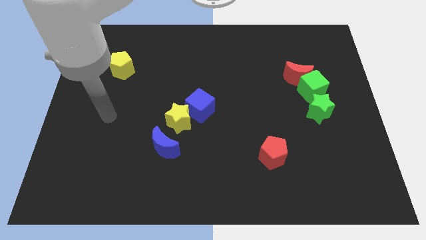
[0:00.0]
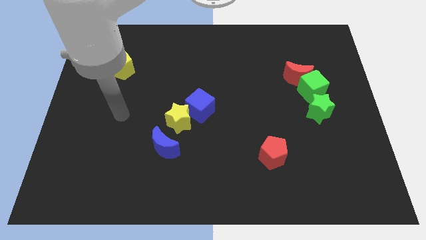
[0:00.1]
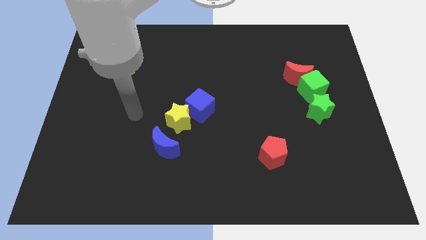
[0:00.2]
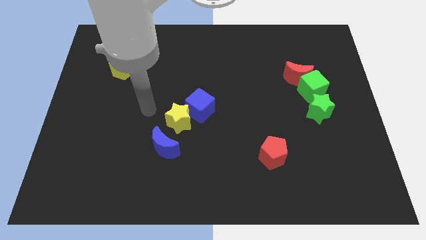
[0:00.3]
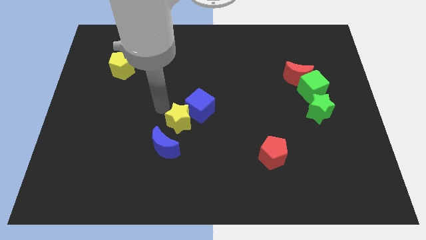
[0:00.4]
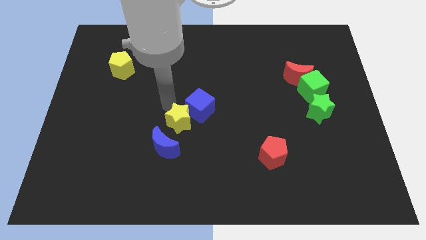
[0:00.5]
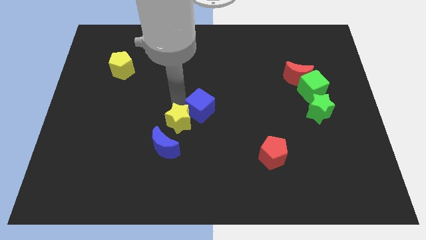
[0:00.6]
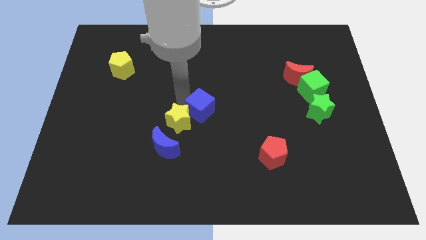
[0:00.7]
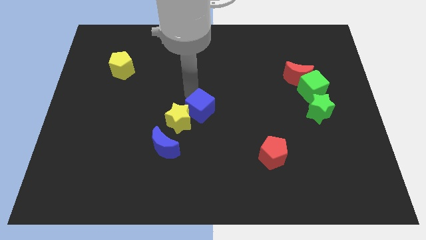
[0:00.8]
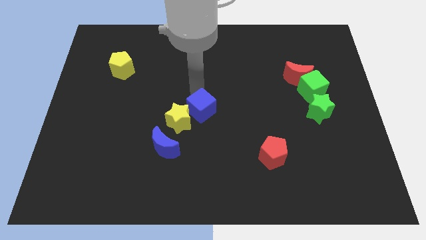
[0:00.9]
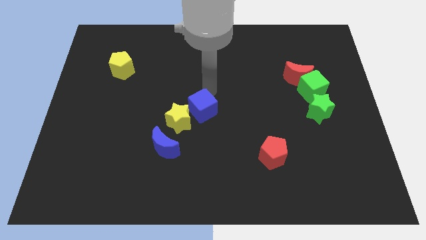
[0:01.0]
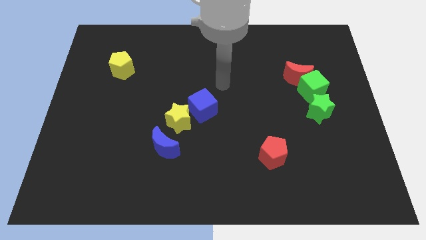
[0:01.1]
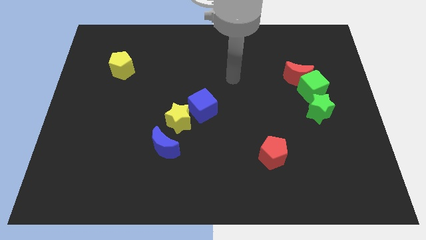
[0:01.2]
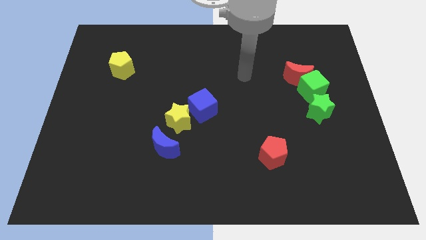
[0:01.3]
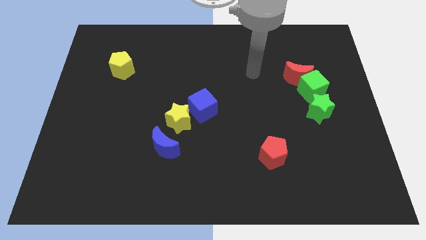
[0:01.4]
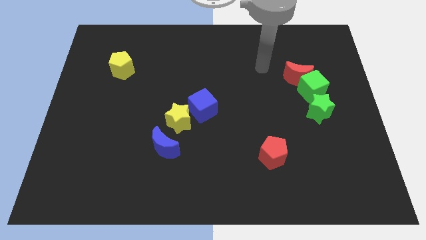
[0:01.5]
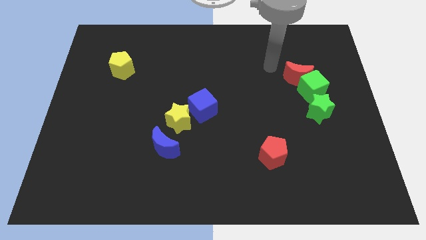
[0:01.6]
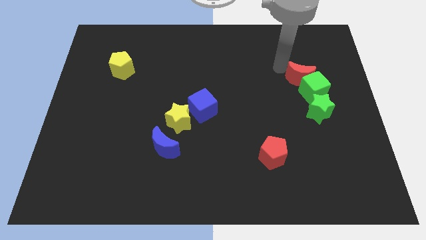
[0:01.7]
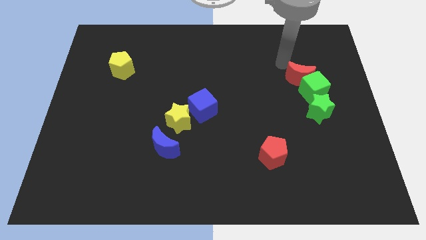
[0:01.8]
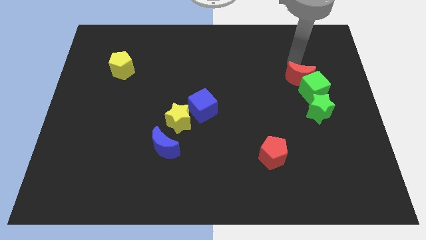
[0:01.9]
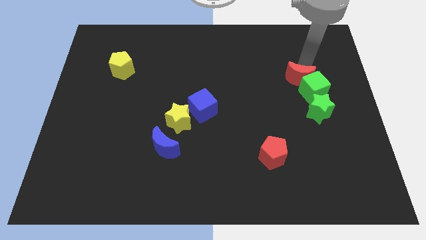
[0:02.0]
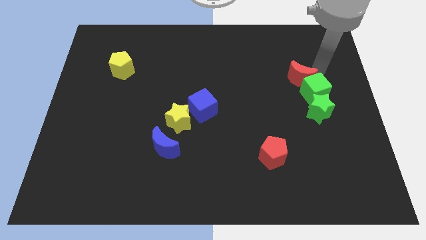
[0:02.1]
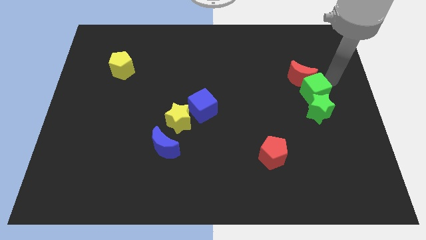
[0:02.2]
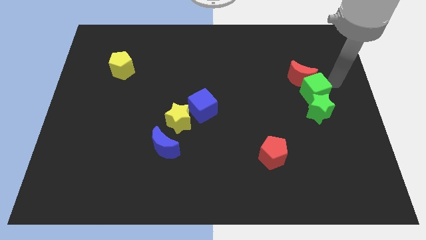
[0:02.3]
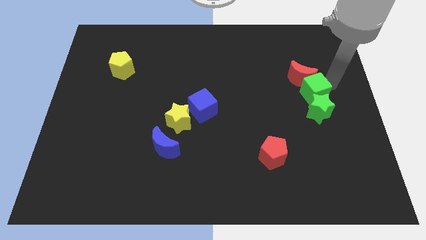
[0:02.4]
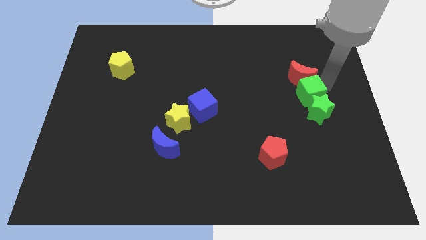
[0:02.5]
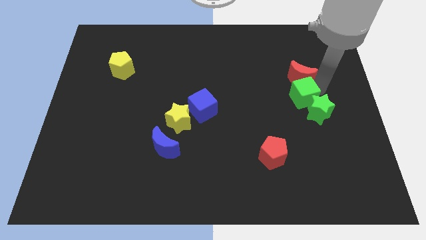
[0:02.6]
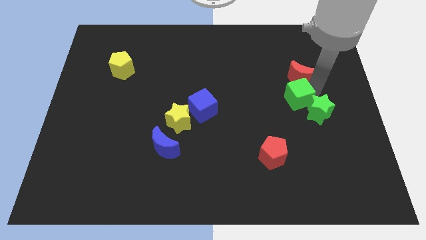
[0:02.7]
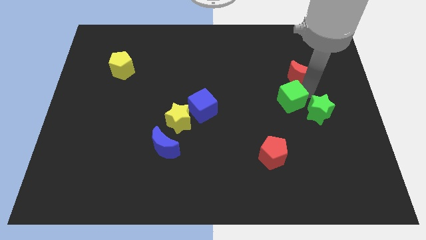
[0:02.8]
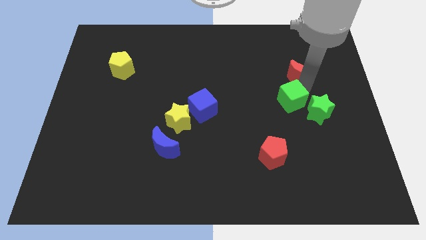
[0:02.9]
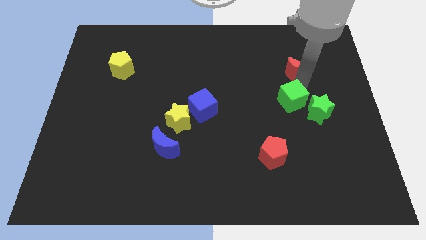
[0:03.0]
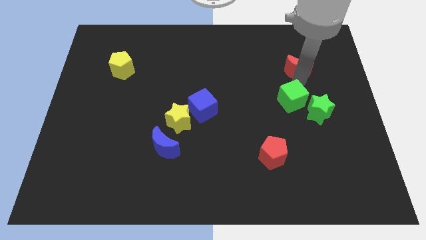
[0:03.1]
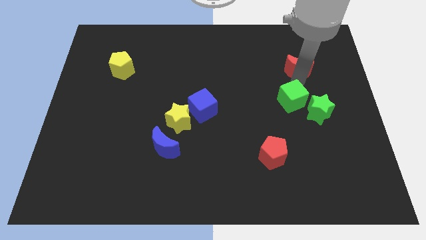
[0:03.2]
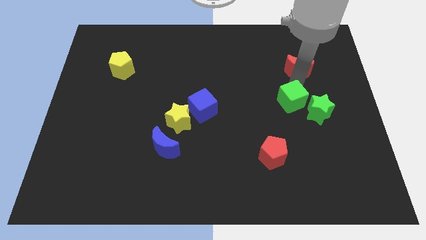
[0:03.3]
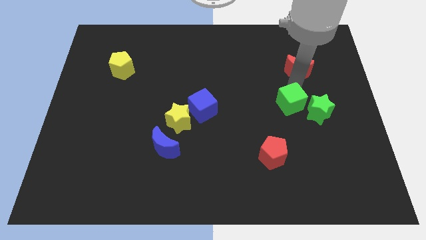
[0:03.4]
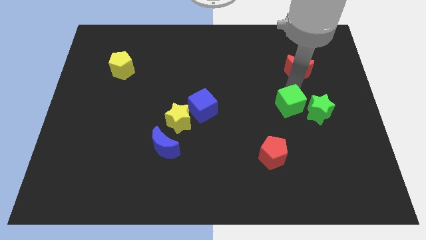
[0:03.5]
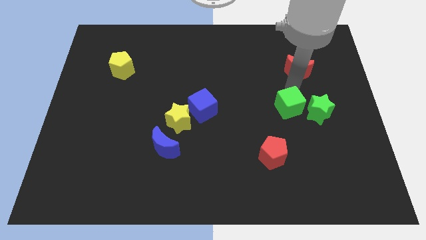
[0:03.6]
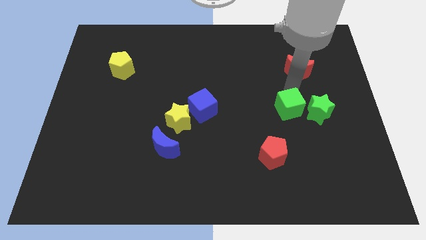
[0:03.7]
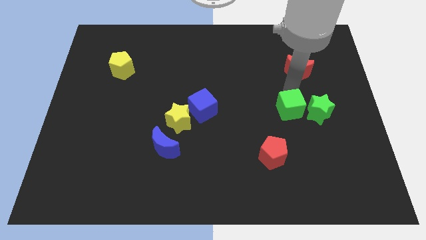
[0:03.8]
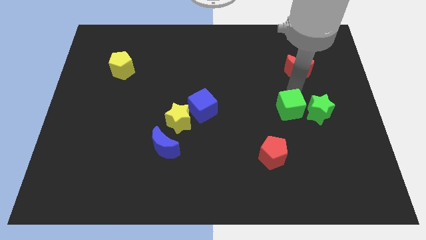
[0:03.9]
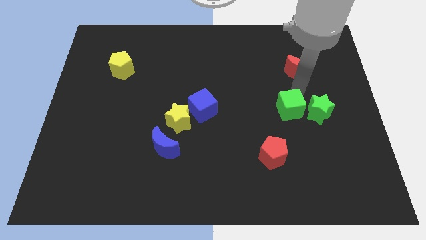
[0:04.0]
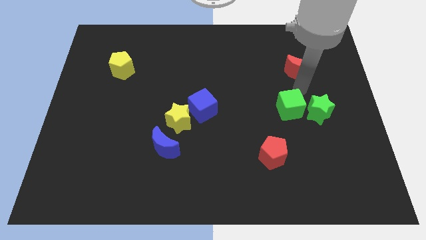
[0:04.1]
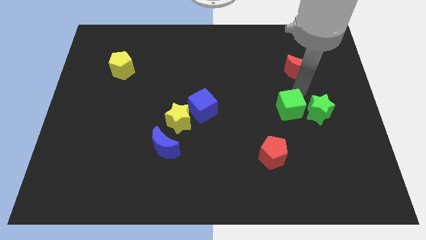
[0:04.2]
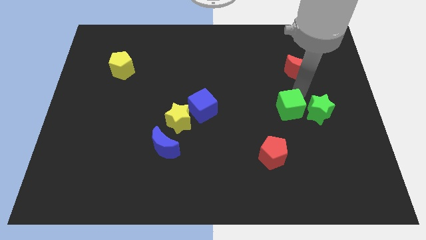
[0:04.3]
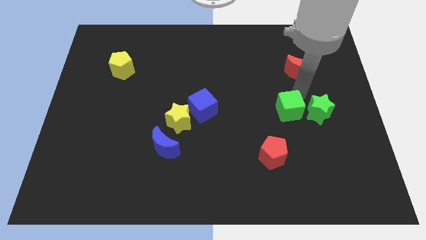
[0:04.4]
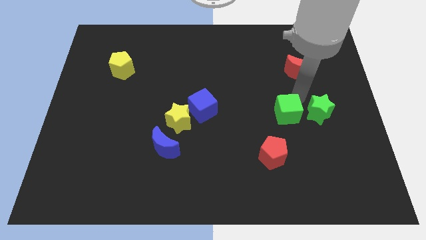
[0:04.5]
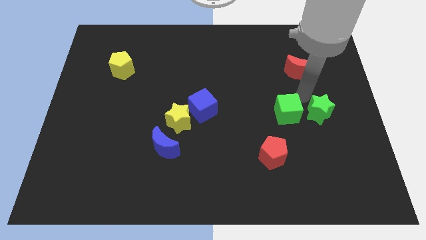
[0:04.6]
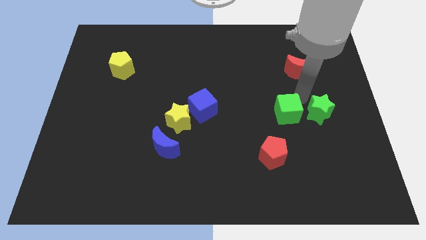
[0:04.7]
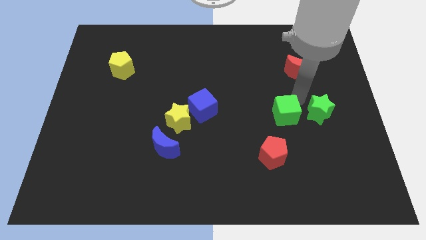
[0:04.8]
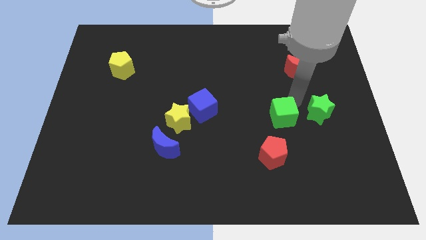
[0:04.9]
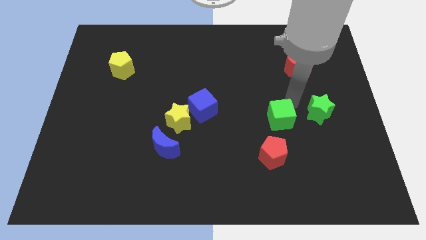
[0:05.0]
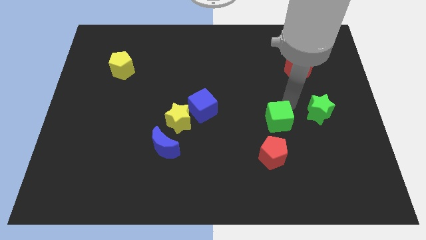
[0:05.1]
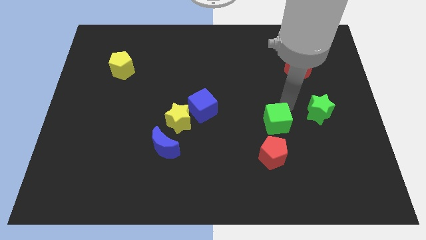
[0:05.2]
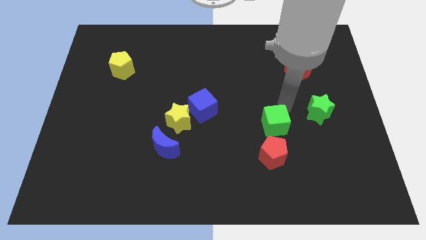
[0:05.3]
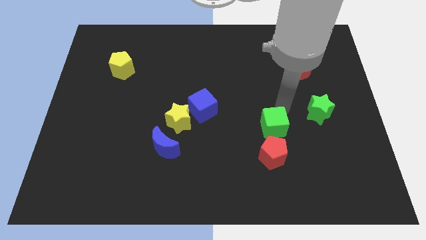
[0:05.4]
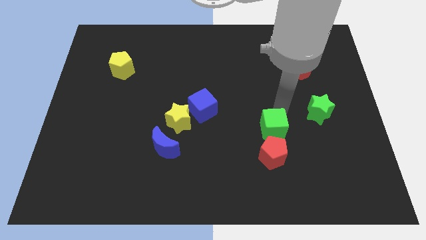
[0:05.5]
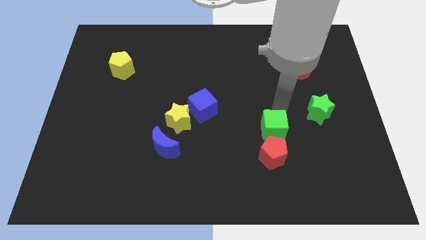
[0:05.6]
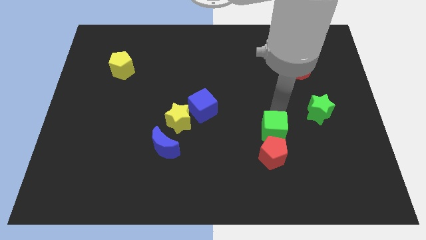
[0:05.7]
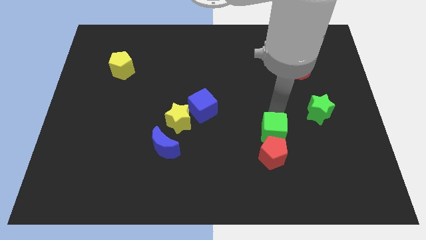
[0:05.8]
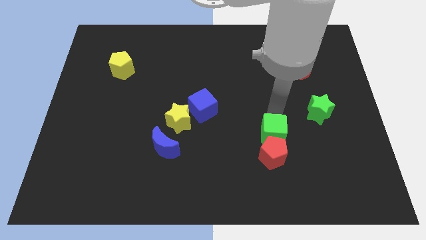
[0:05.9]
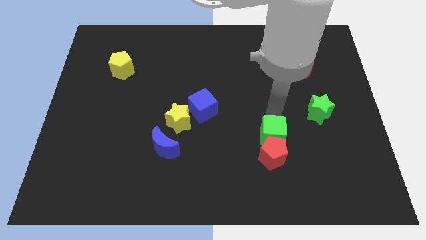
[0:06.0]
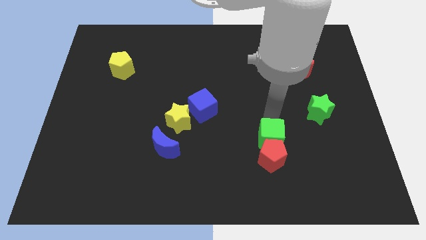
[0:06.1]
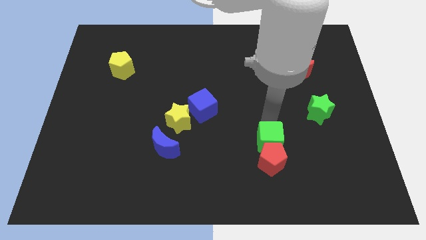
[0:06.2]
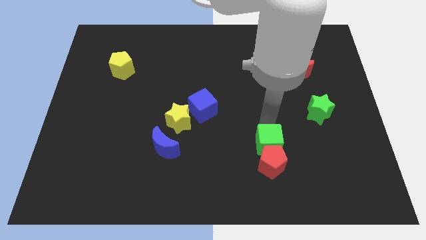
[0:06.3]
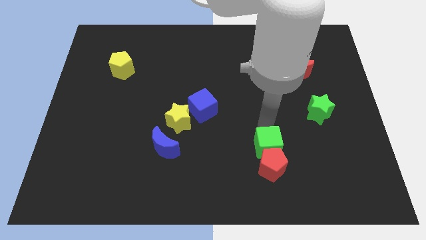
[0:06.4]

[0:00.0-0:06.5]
move the green cube downwards and left diagonally

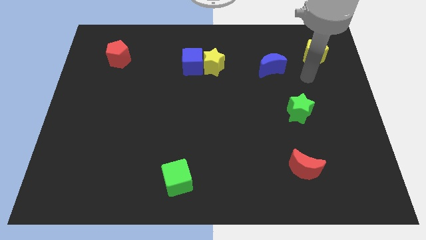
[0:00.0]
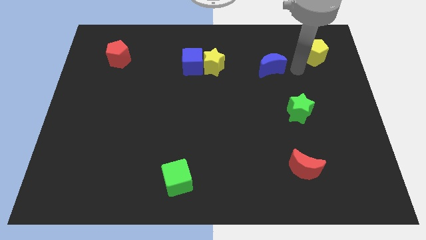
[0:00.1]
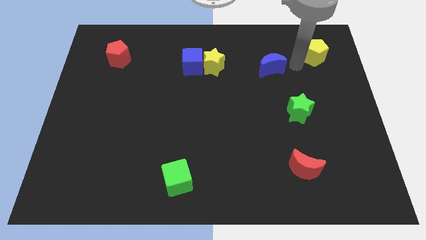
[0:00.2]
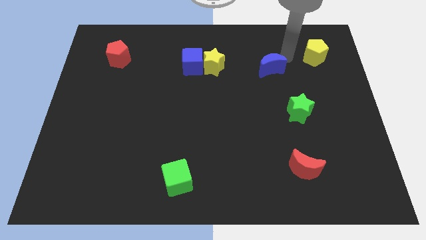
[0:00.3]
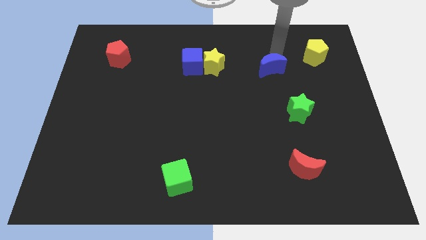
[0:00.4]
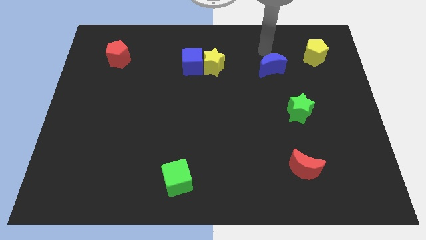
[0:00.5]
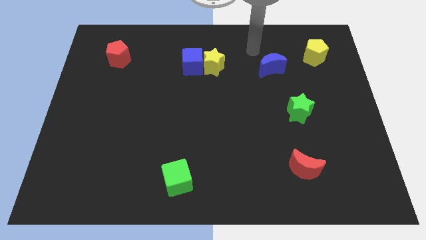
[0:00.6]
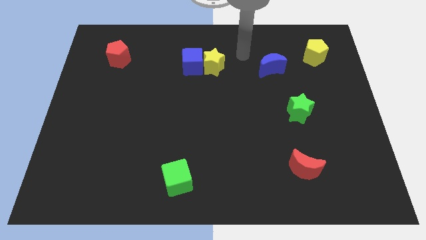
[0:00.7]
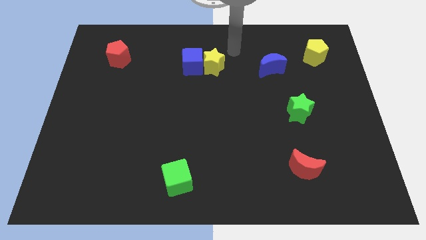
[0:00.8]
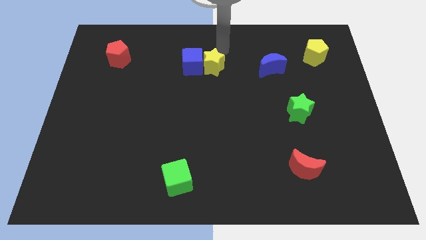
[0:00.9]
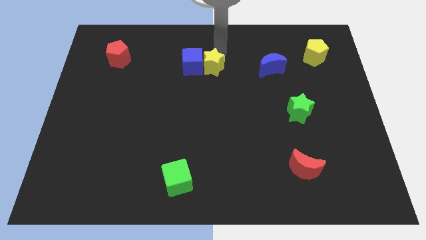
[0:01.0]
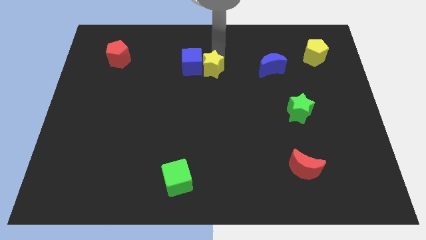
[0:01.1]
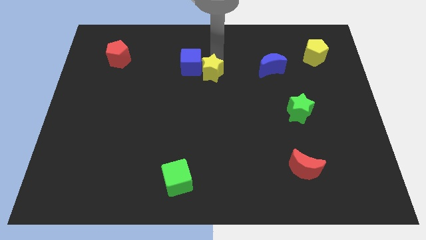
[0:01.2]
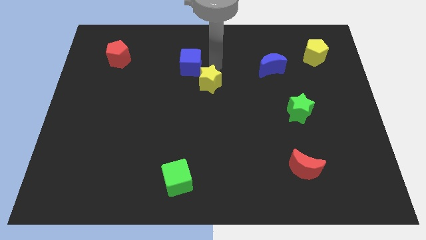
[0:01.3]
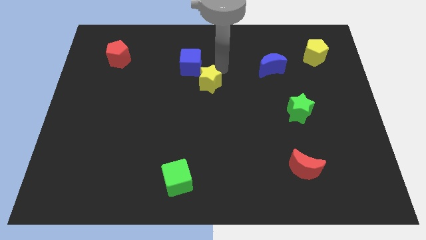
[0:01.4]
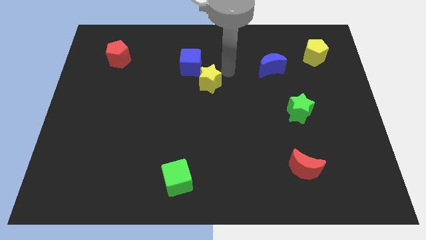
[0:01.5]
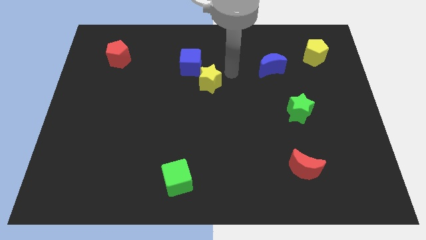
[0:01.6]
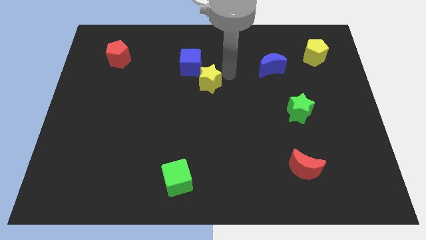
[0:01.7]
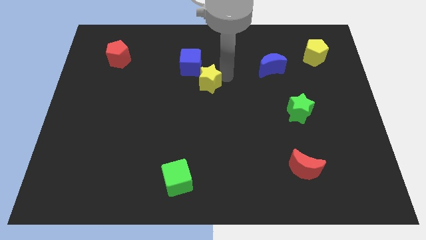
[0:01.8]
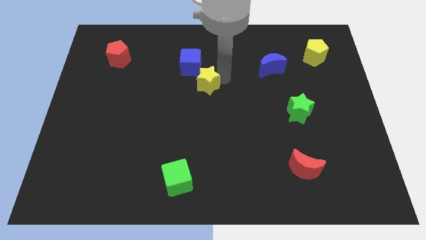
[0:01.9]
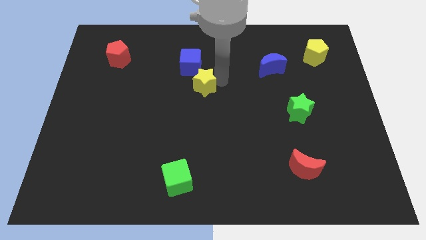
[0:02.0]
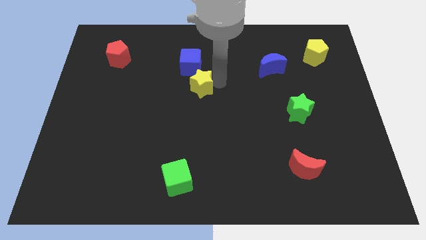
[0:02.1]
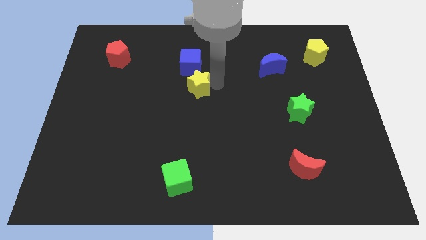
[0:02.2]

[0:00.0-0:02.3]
slide the yellow star down and left somewhat
